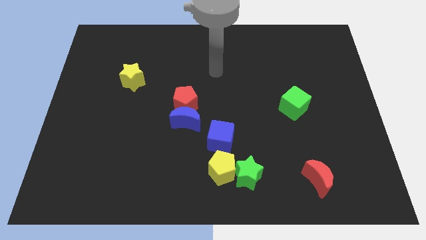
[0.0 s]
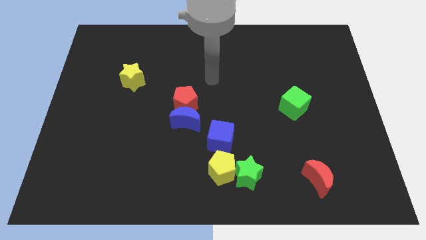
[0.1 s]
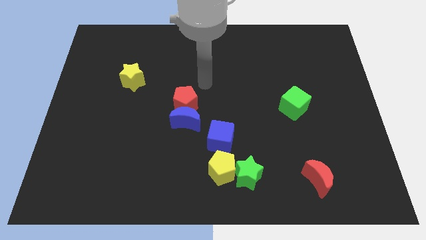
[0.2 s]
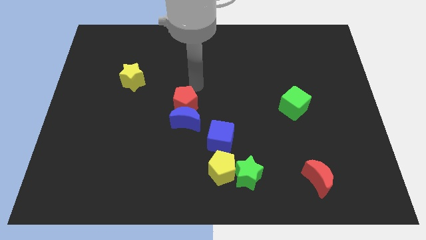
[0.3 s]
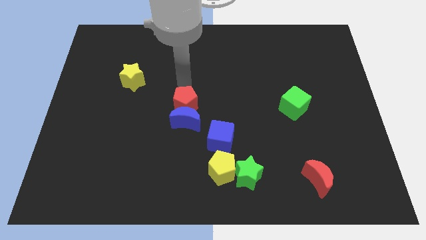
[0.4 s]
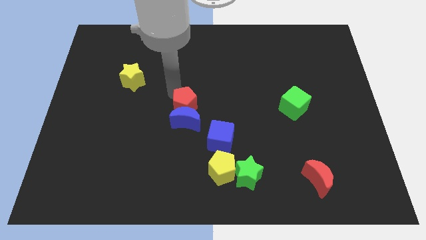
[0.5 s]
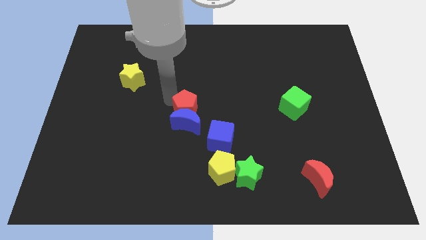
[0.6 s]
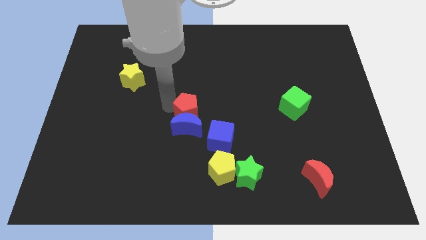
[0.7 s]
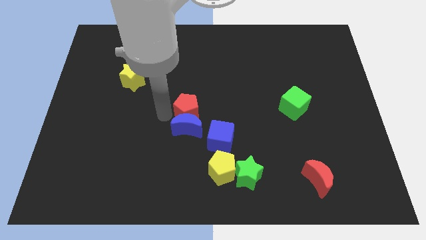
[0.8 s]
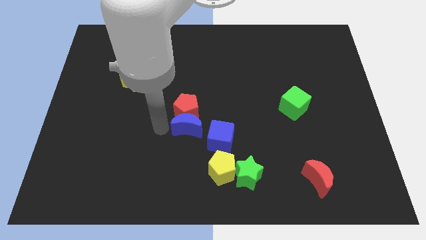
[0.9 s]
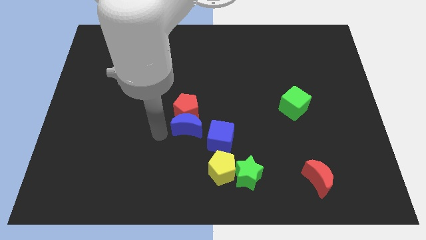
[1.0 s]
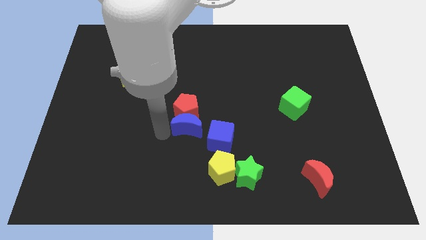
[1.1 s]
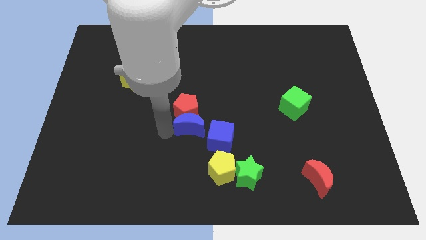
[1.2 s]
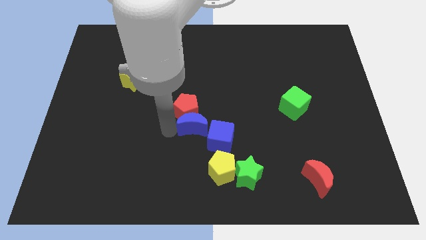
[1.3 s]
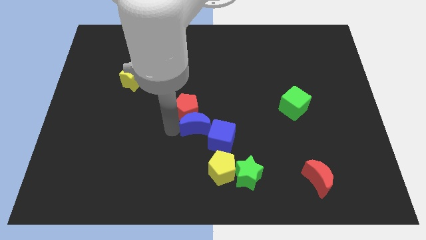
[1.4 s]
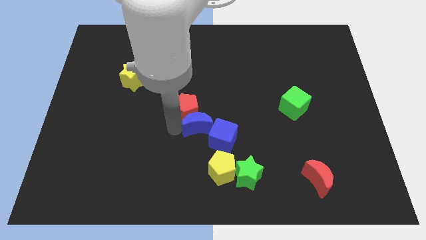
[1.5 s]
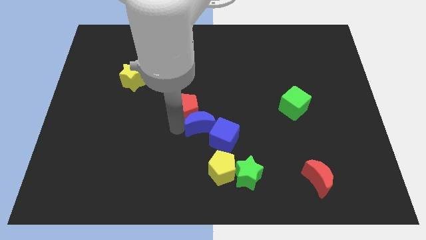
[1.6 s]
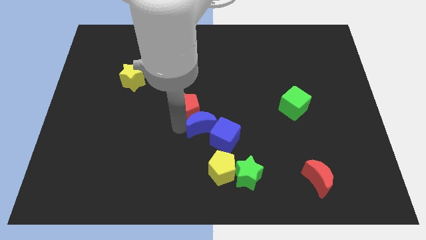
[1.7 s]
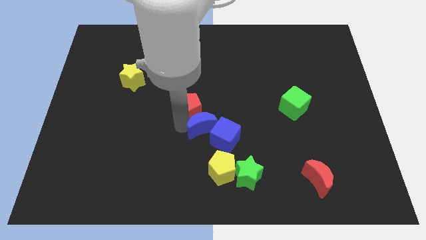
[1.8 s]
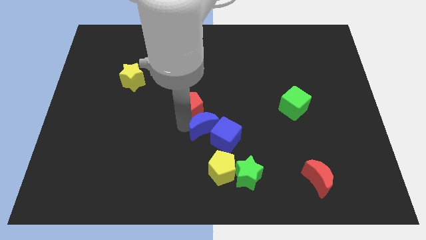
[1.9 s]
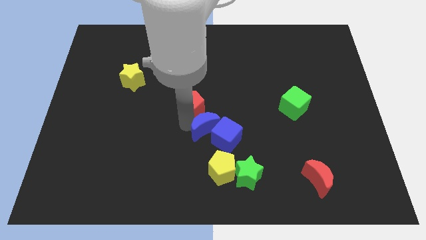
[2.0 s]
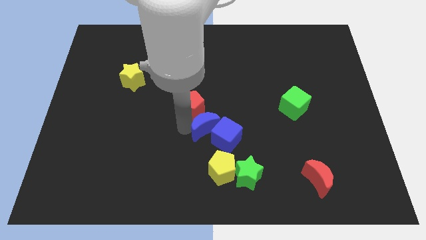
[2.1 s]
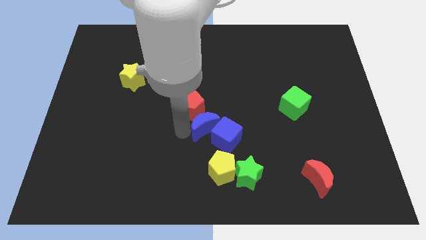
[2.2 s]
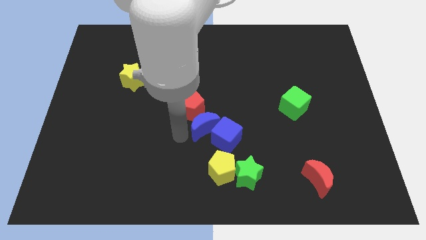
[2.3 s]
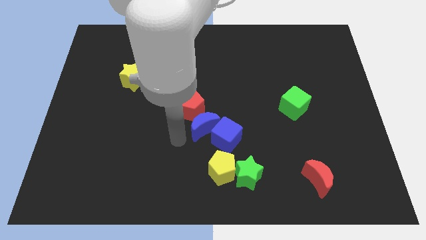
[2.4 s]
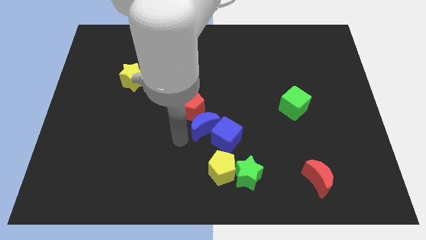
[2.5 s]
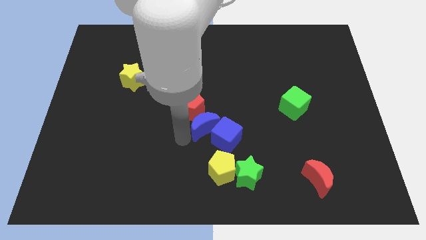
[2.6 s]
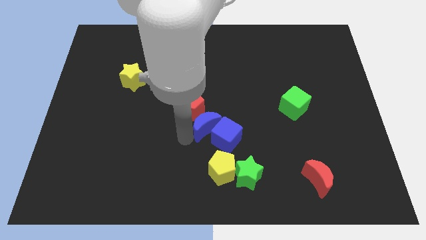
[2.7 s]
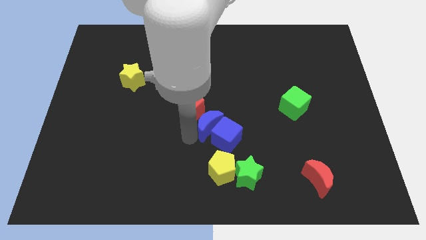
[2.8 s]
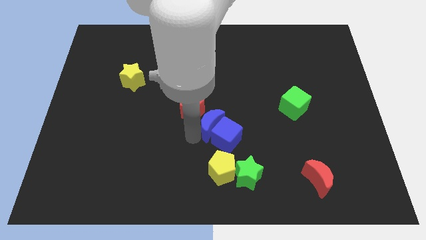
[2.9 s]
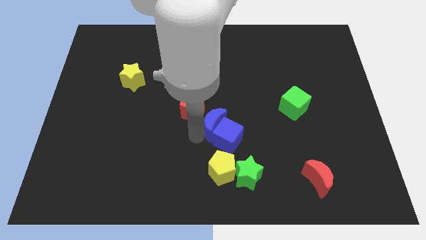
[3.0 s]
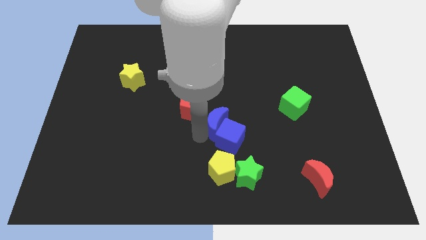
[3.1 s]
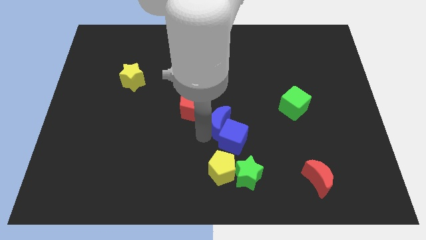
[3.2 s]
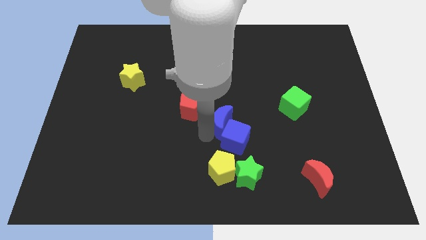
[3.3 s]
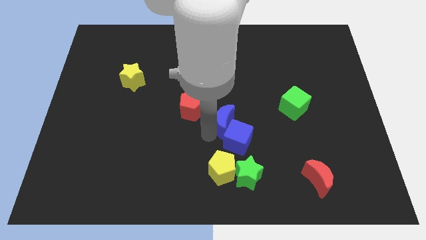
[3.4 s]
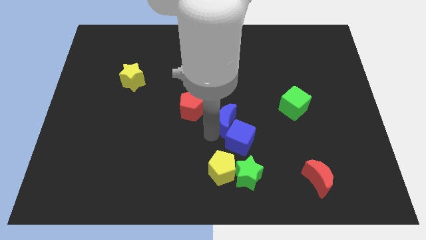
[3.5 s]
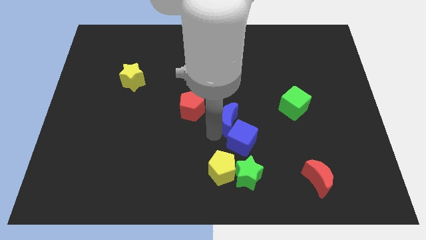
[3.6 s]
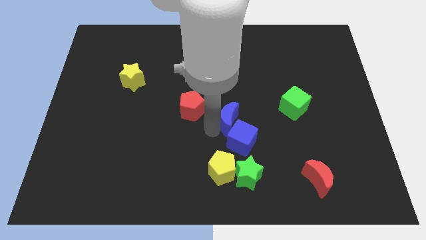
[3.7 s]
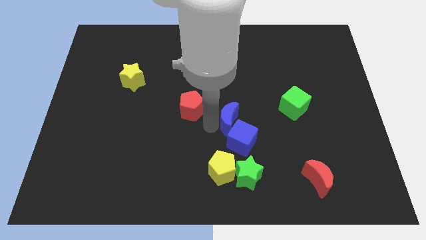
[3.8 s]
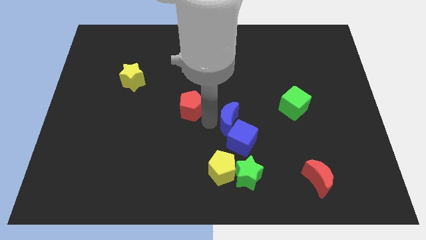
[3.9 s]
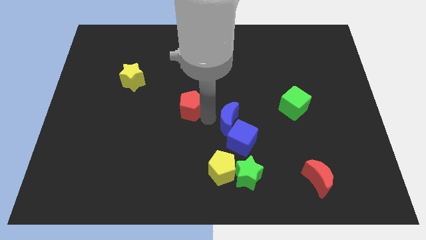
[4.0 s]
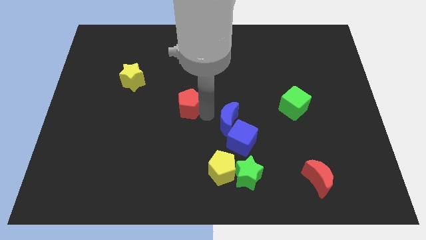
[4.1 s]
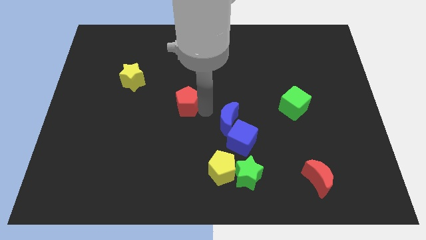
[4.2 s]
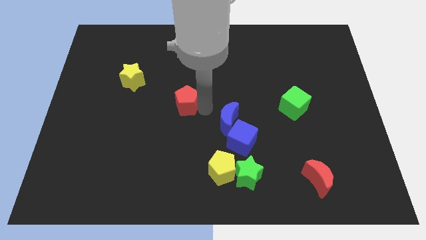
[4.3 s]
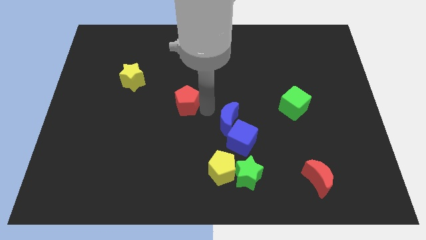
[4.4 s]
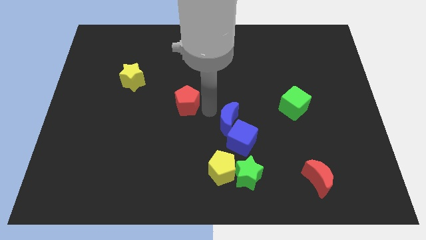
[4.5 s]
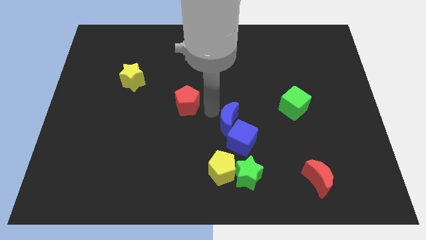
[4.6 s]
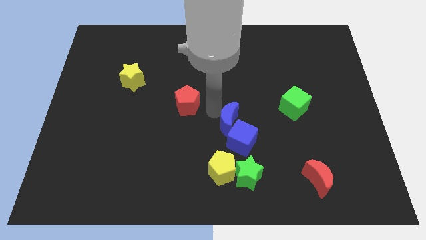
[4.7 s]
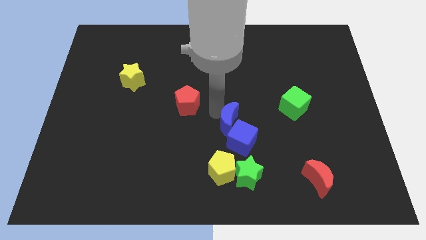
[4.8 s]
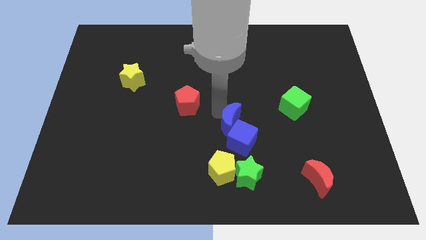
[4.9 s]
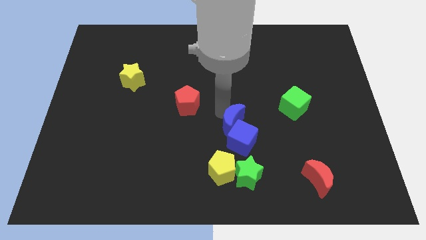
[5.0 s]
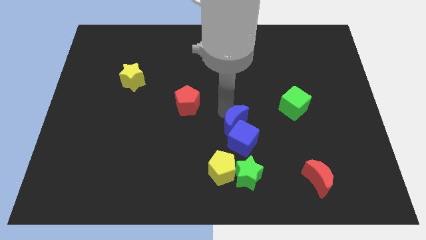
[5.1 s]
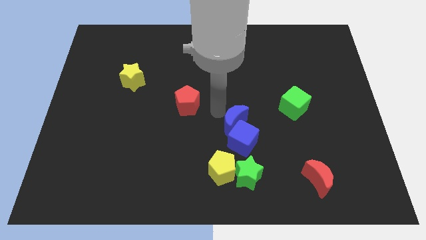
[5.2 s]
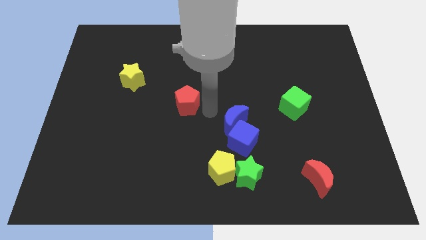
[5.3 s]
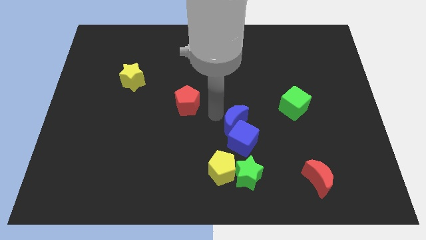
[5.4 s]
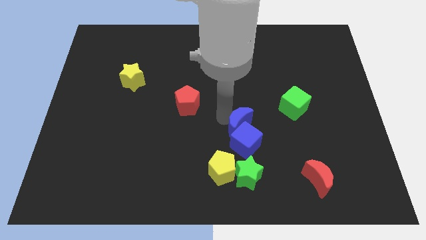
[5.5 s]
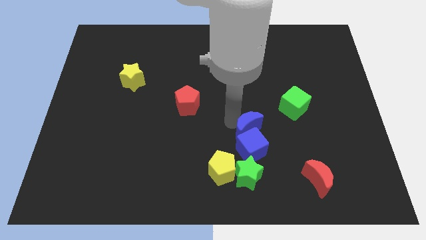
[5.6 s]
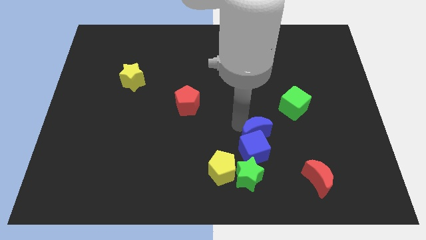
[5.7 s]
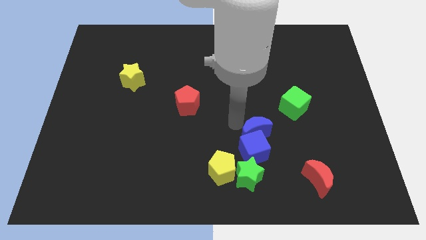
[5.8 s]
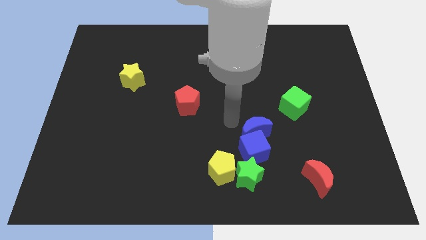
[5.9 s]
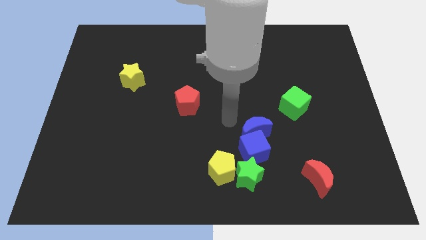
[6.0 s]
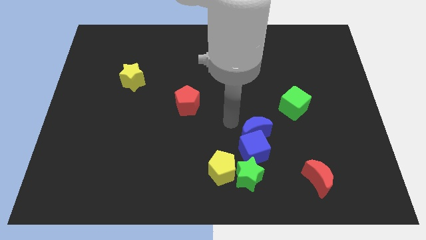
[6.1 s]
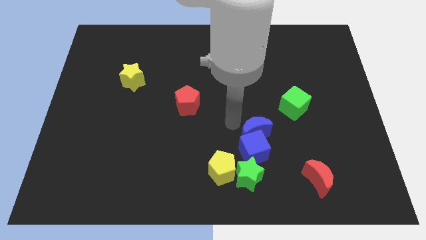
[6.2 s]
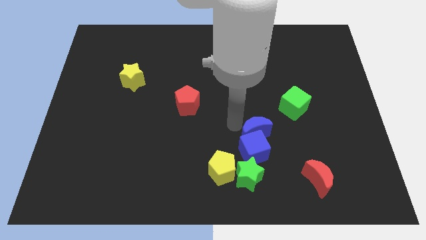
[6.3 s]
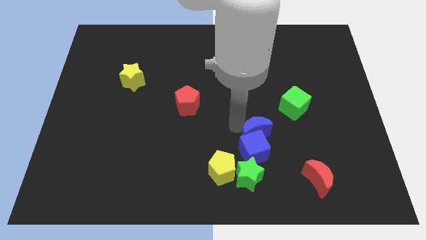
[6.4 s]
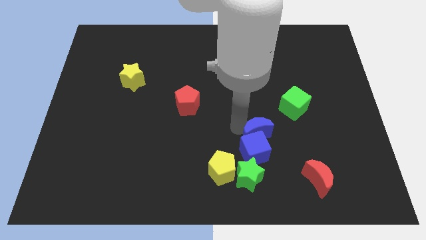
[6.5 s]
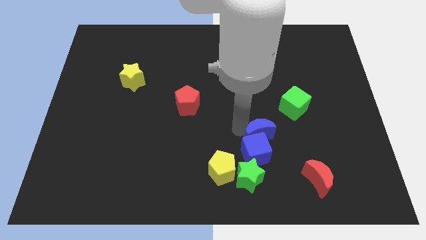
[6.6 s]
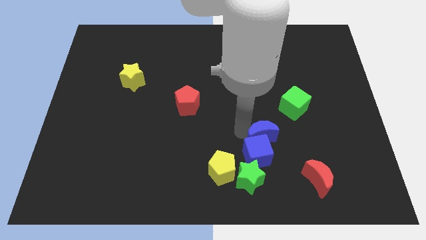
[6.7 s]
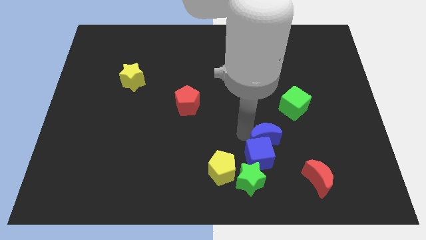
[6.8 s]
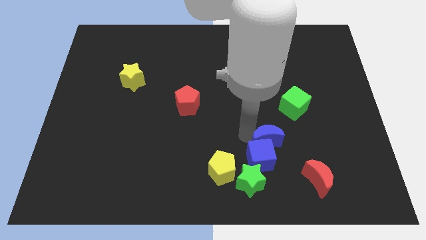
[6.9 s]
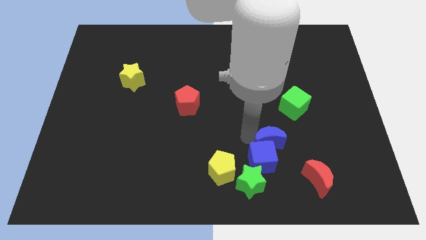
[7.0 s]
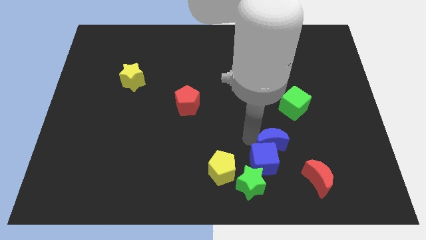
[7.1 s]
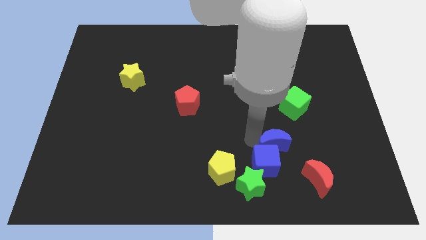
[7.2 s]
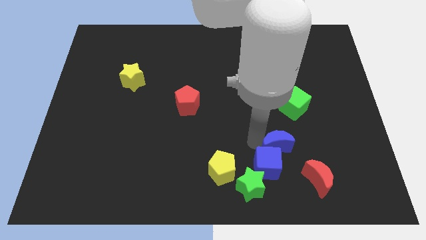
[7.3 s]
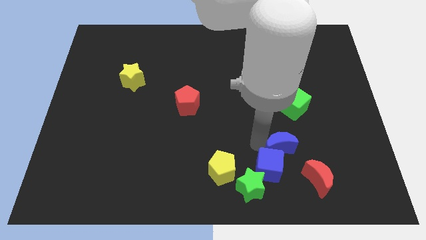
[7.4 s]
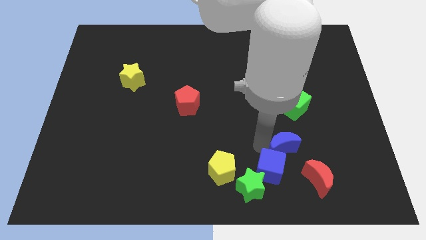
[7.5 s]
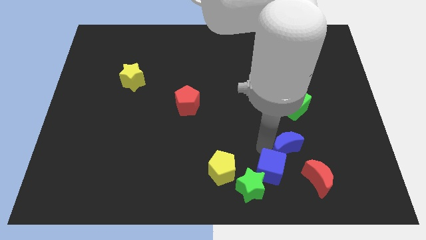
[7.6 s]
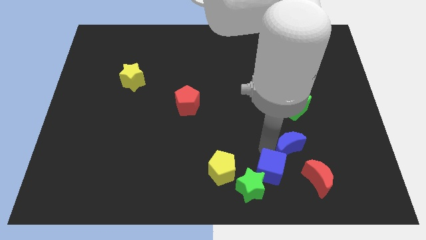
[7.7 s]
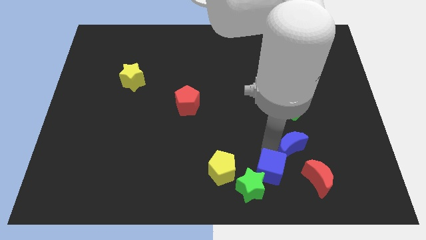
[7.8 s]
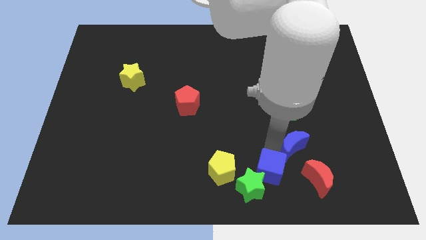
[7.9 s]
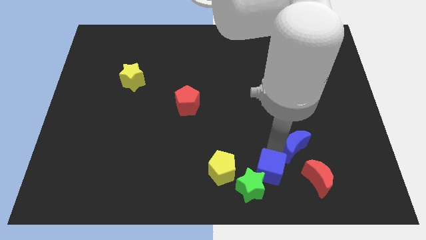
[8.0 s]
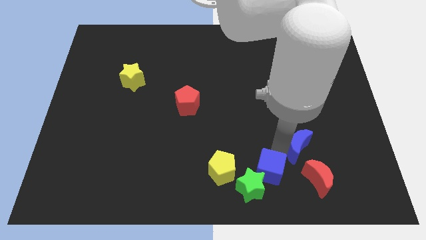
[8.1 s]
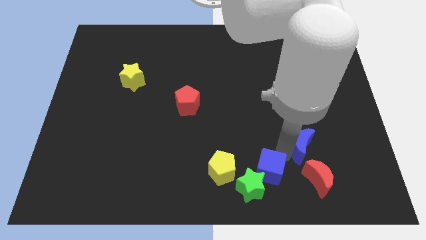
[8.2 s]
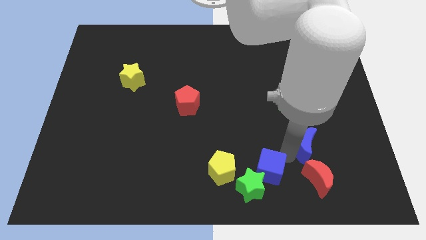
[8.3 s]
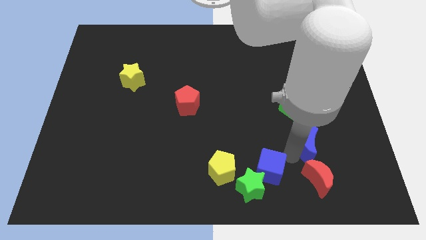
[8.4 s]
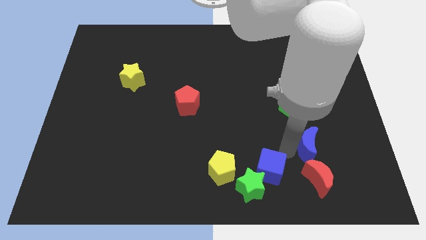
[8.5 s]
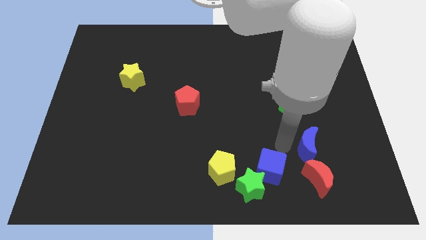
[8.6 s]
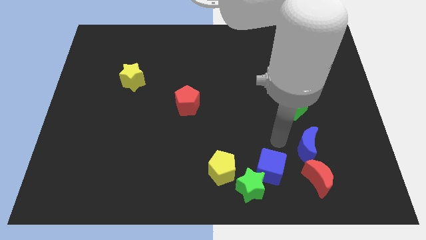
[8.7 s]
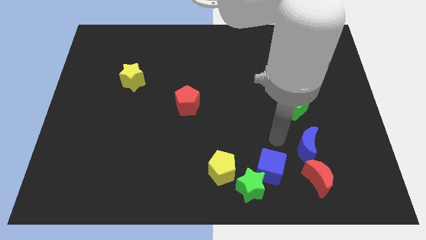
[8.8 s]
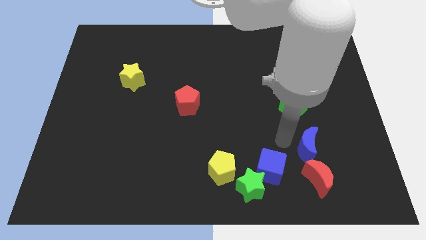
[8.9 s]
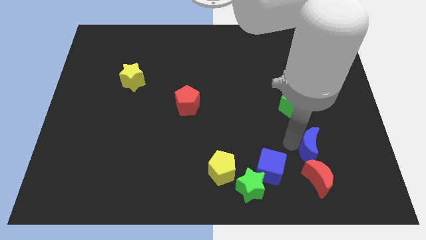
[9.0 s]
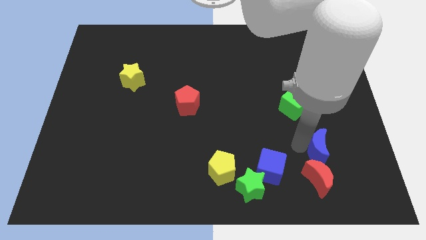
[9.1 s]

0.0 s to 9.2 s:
put the blue moon to the top right of the red moon
